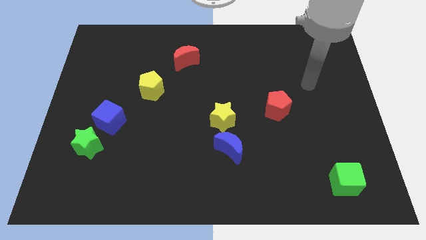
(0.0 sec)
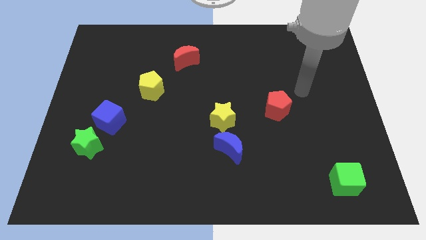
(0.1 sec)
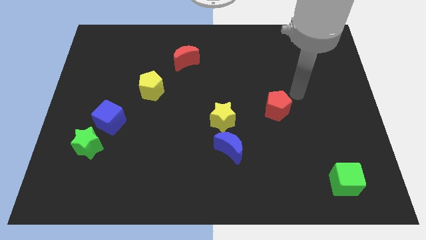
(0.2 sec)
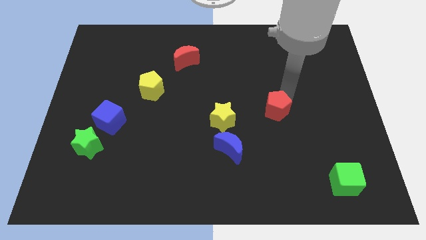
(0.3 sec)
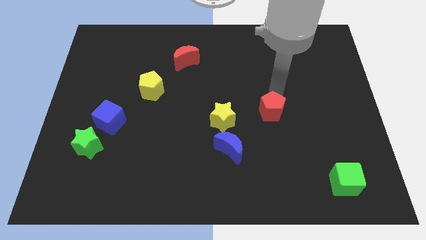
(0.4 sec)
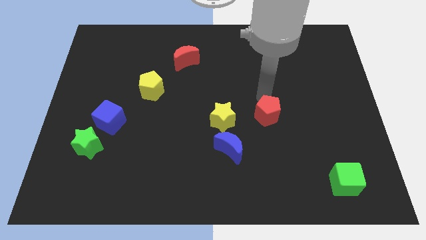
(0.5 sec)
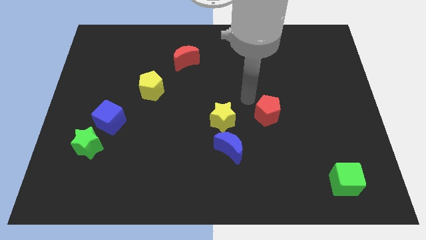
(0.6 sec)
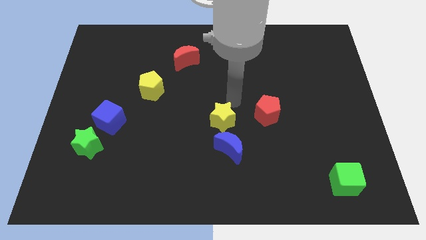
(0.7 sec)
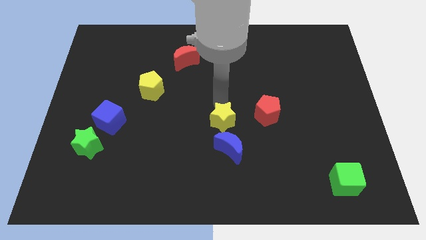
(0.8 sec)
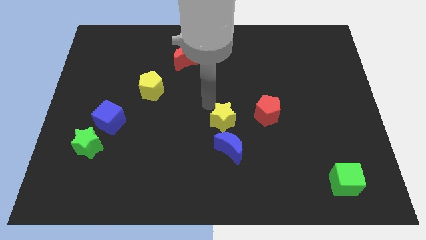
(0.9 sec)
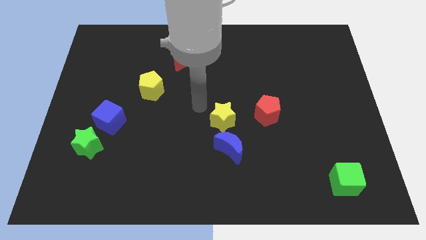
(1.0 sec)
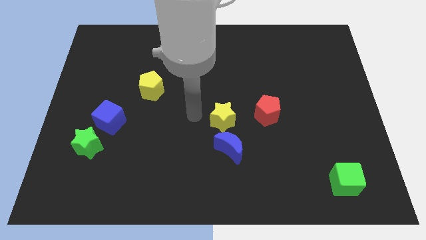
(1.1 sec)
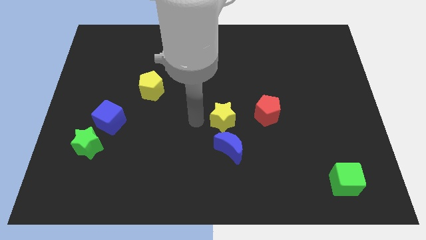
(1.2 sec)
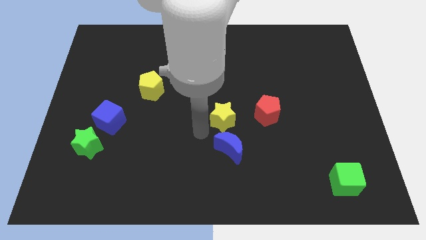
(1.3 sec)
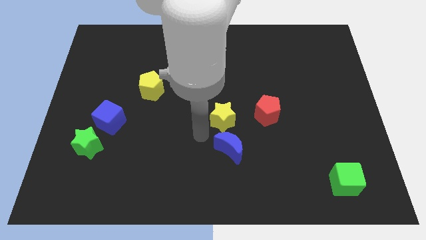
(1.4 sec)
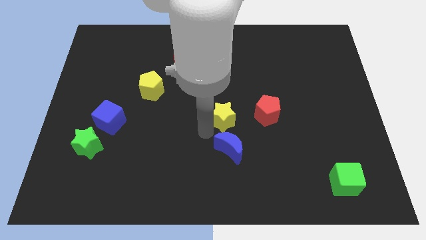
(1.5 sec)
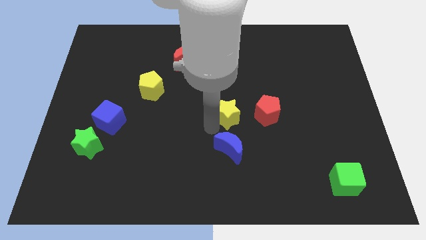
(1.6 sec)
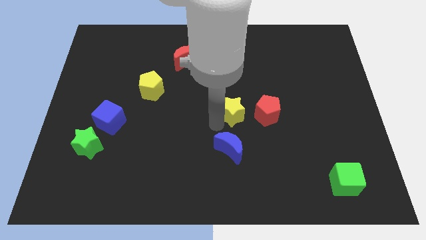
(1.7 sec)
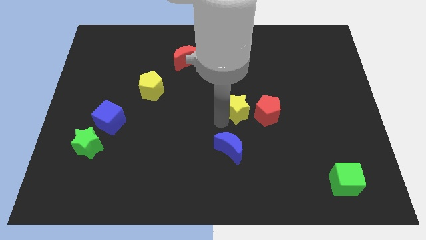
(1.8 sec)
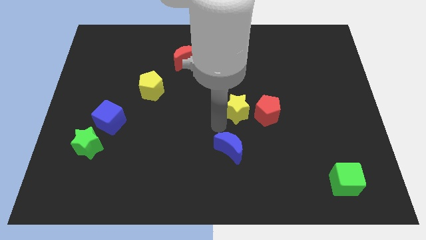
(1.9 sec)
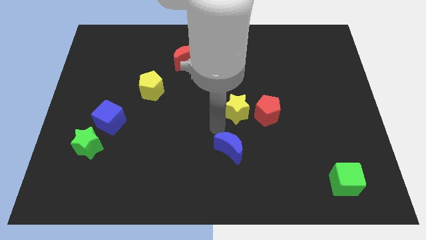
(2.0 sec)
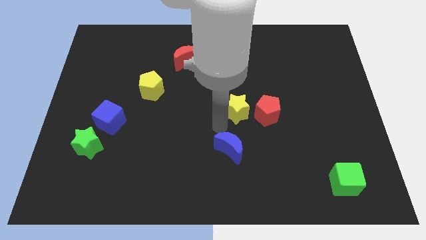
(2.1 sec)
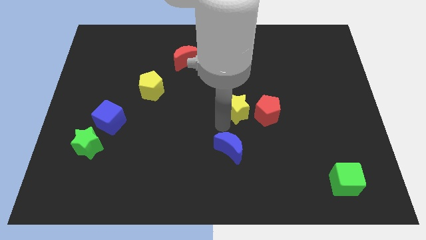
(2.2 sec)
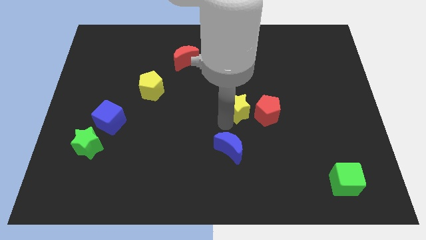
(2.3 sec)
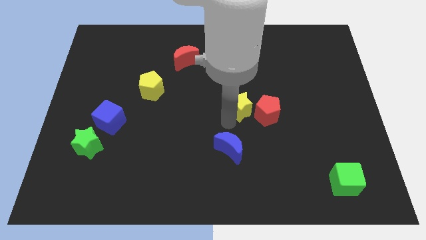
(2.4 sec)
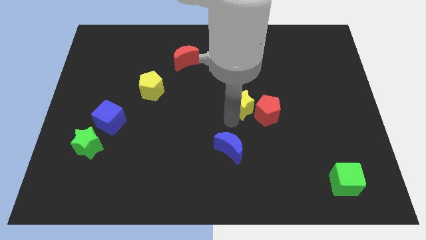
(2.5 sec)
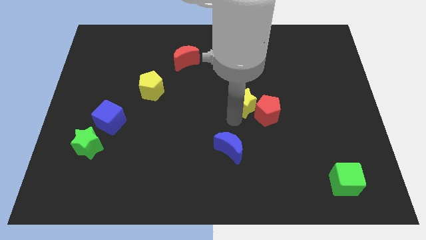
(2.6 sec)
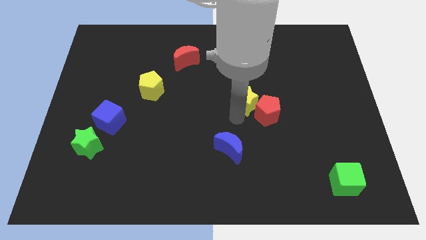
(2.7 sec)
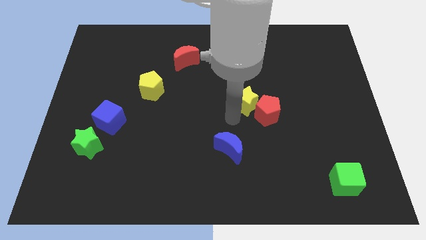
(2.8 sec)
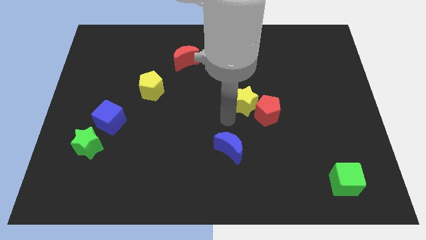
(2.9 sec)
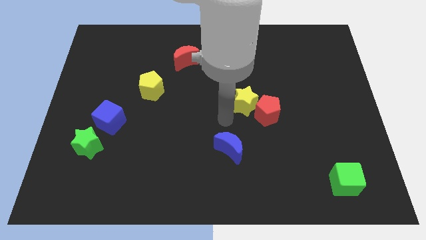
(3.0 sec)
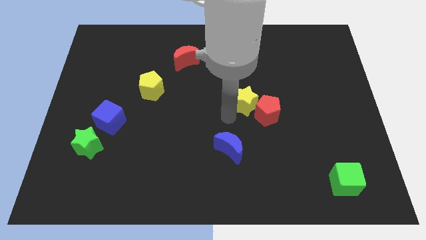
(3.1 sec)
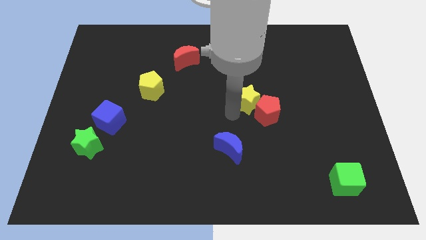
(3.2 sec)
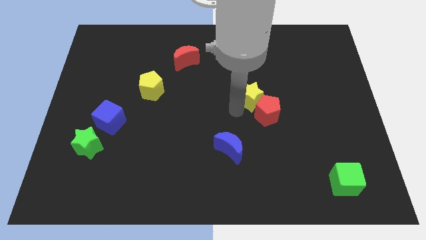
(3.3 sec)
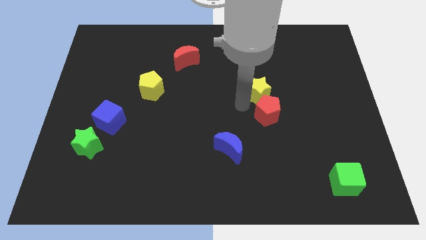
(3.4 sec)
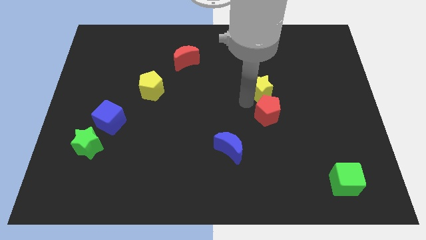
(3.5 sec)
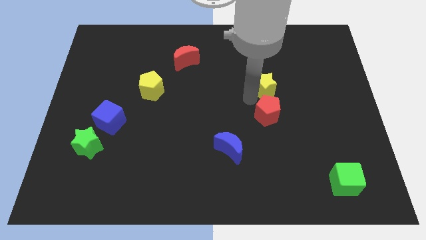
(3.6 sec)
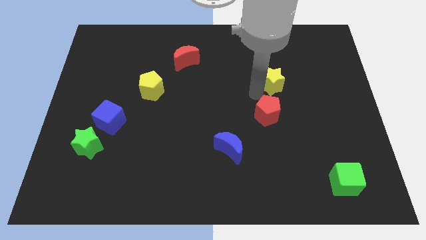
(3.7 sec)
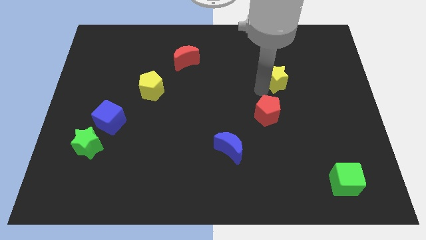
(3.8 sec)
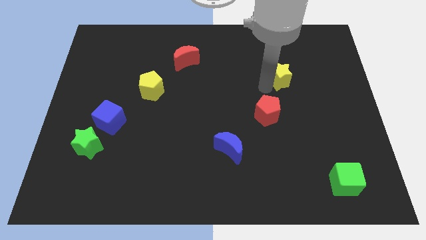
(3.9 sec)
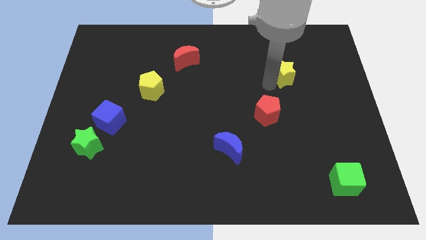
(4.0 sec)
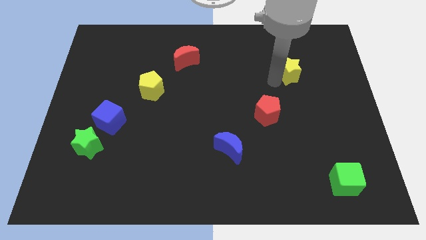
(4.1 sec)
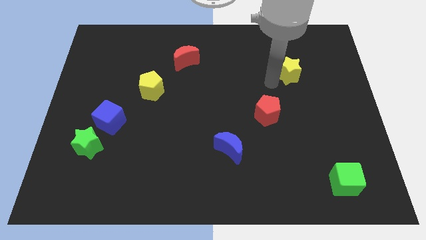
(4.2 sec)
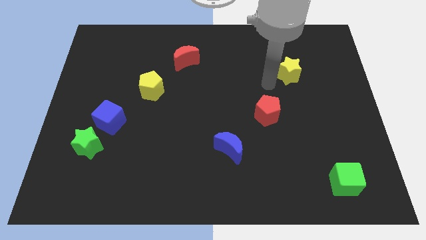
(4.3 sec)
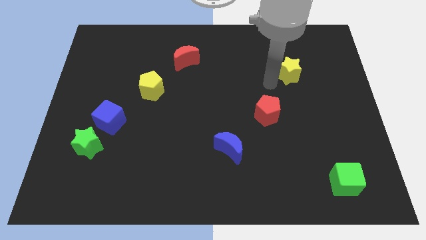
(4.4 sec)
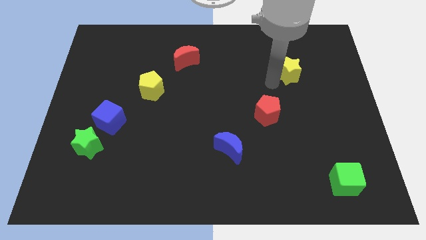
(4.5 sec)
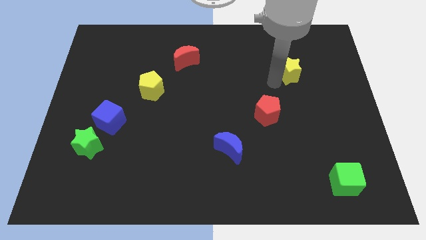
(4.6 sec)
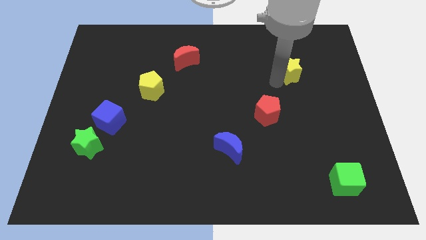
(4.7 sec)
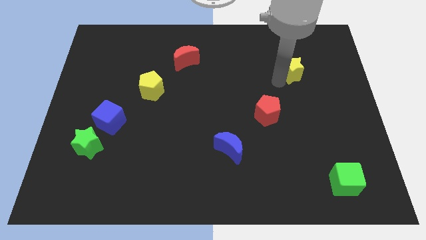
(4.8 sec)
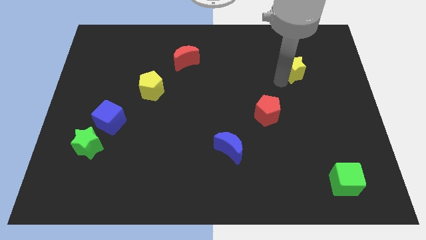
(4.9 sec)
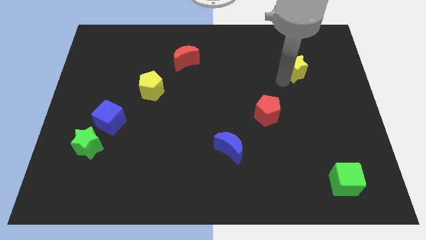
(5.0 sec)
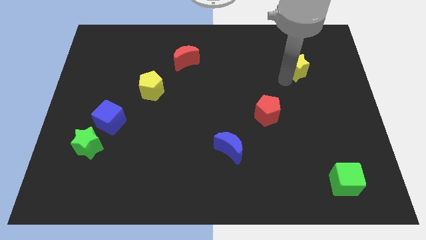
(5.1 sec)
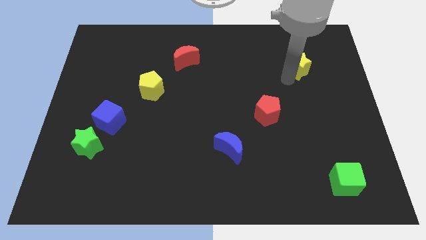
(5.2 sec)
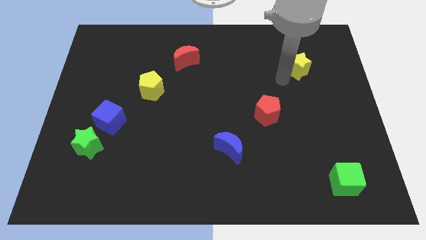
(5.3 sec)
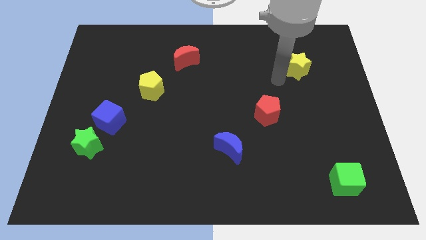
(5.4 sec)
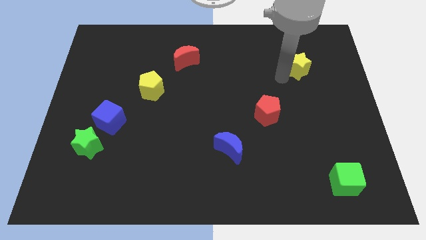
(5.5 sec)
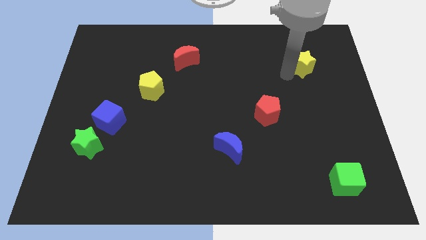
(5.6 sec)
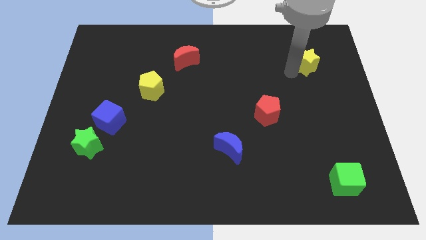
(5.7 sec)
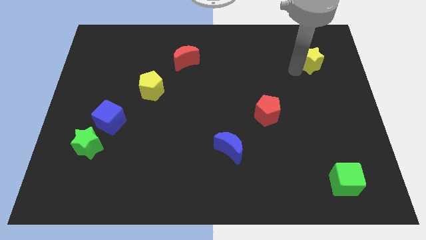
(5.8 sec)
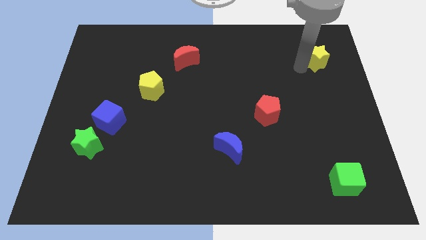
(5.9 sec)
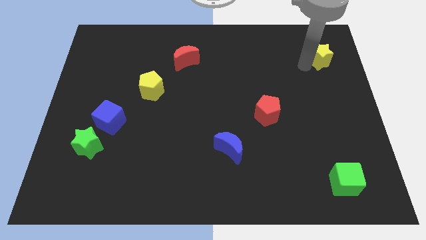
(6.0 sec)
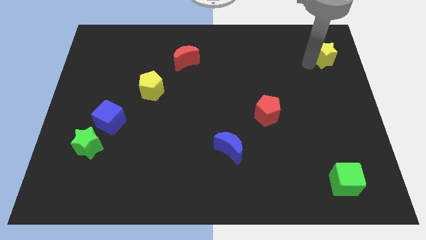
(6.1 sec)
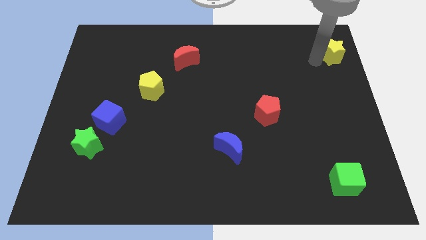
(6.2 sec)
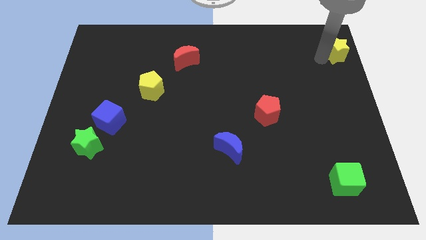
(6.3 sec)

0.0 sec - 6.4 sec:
slide the yellow star to the upper right corner

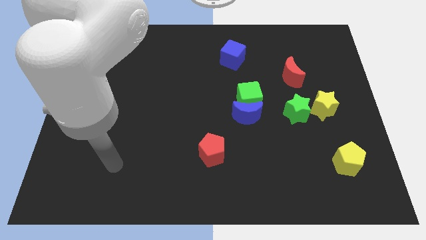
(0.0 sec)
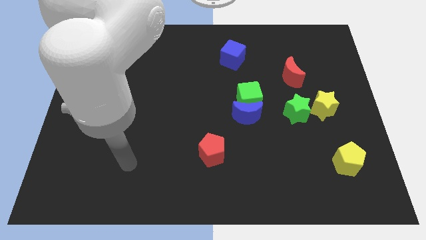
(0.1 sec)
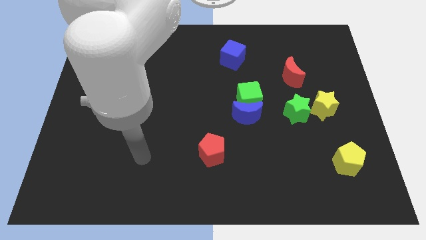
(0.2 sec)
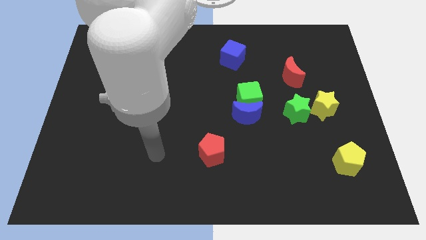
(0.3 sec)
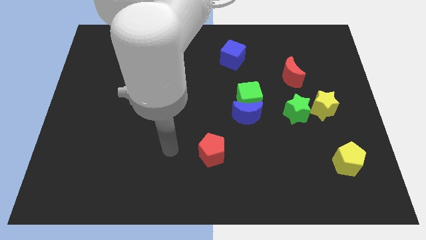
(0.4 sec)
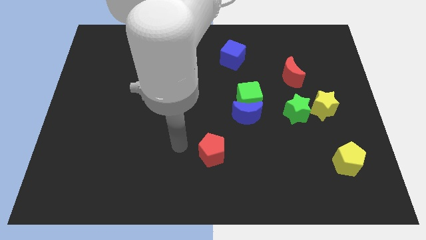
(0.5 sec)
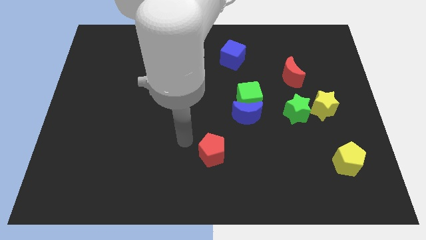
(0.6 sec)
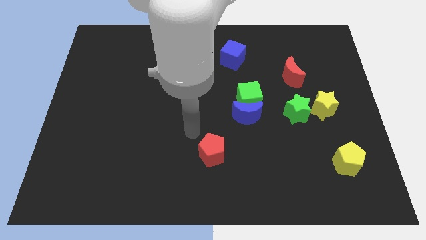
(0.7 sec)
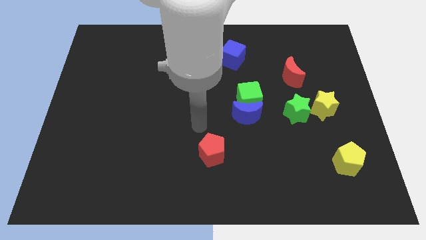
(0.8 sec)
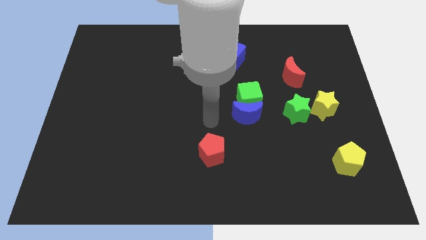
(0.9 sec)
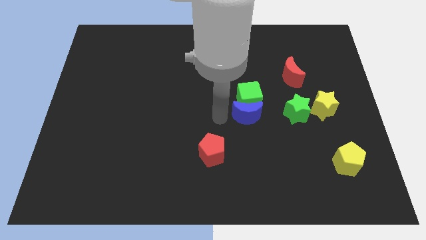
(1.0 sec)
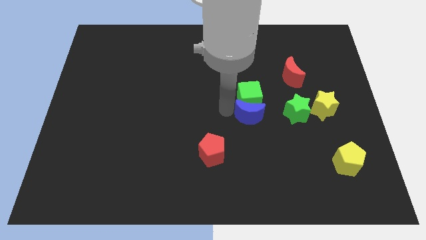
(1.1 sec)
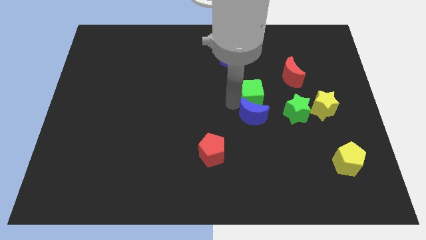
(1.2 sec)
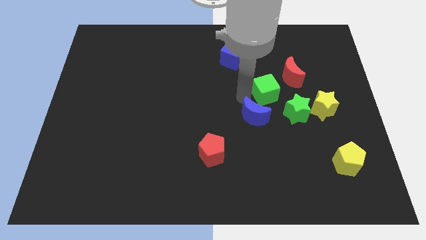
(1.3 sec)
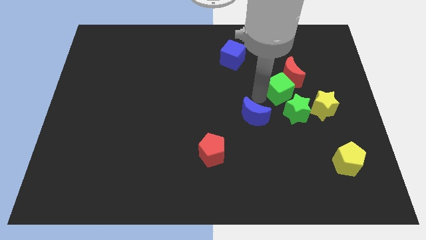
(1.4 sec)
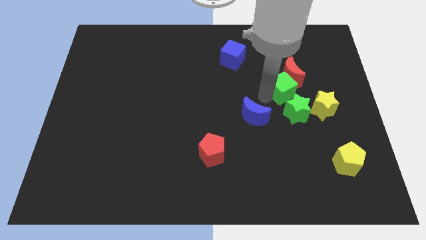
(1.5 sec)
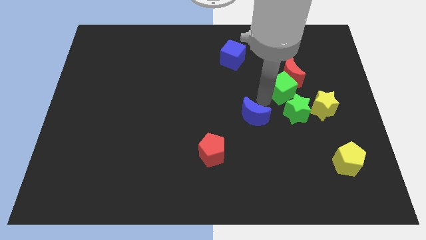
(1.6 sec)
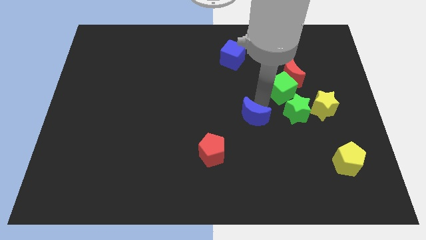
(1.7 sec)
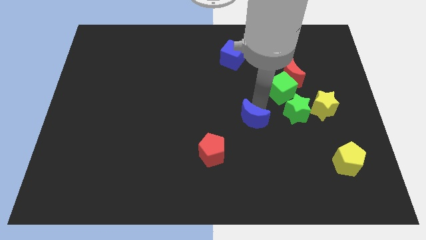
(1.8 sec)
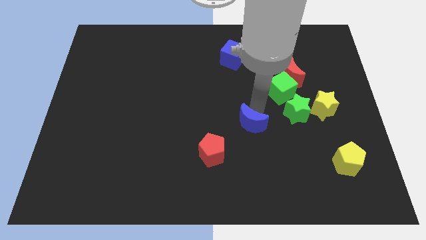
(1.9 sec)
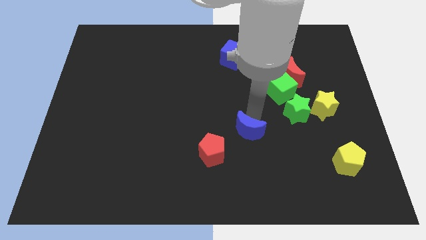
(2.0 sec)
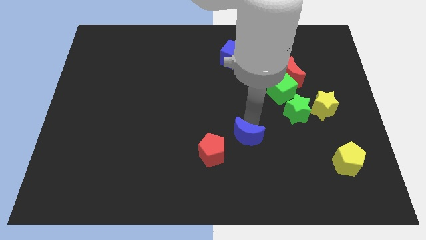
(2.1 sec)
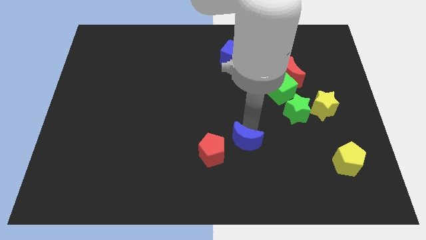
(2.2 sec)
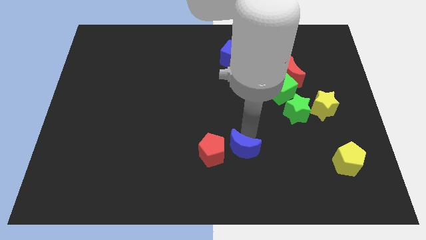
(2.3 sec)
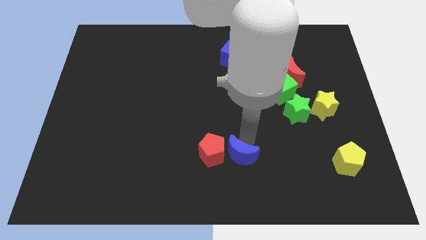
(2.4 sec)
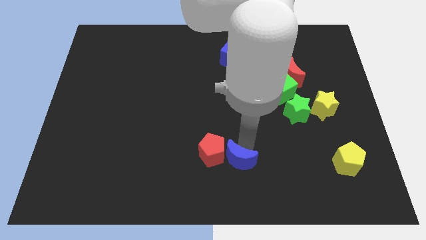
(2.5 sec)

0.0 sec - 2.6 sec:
slide the blue moon to the bottom
